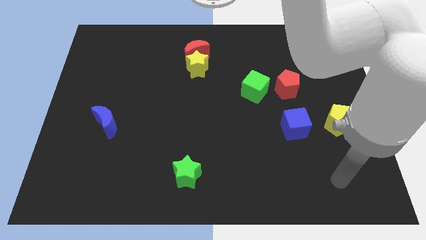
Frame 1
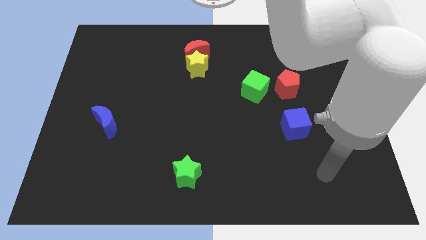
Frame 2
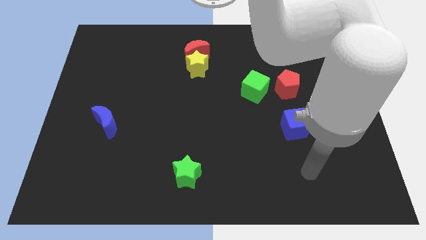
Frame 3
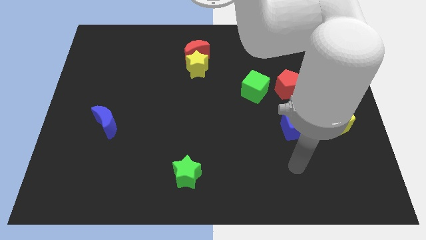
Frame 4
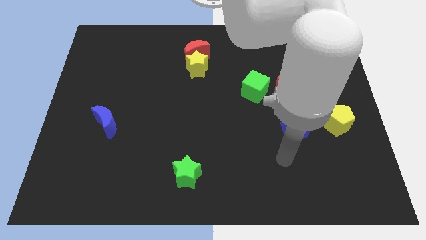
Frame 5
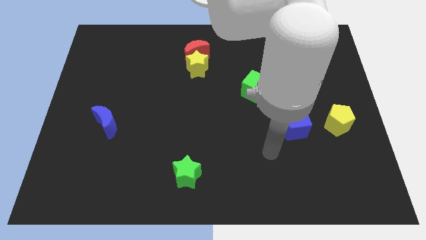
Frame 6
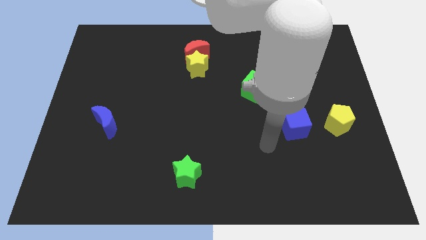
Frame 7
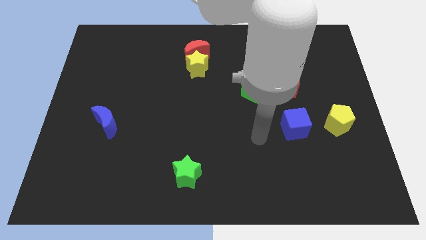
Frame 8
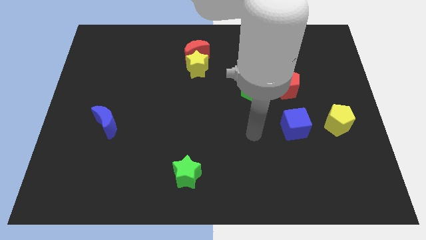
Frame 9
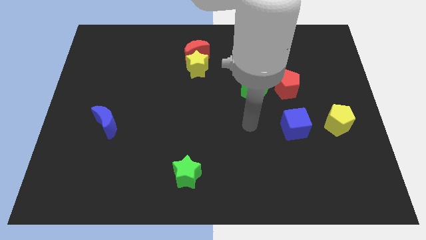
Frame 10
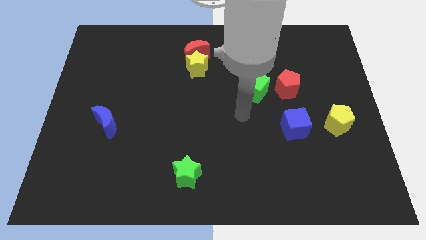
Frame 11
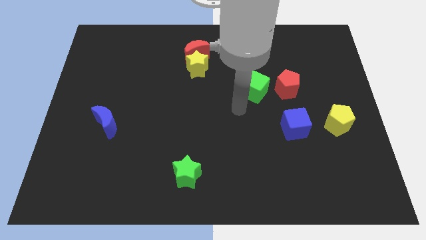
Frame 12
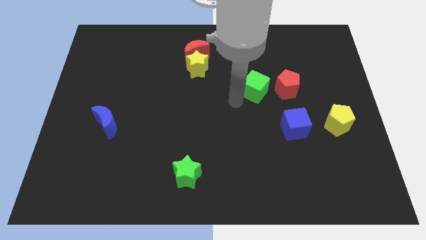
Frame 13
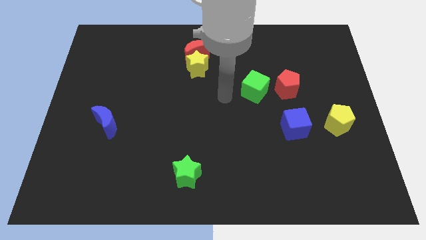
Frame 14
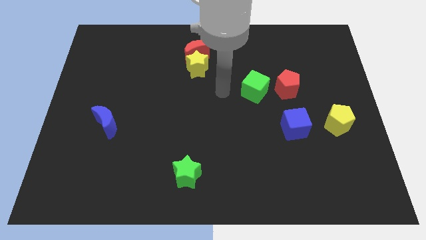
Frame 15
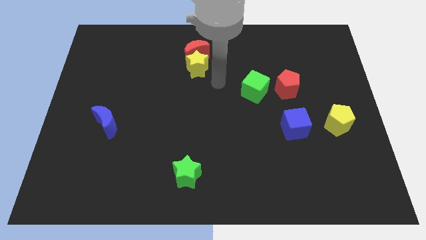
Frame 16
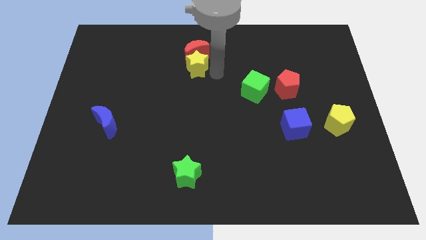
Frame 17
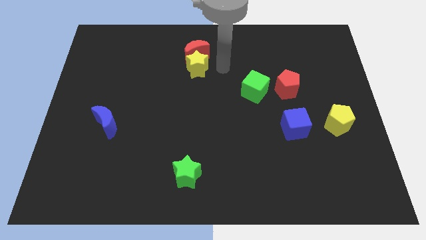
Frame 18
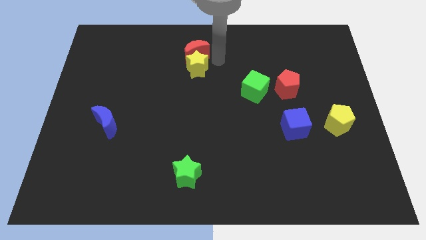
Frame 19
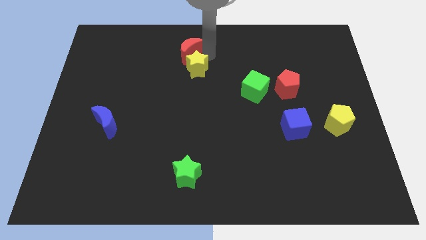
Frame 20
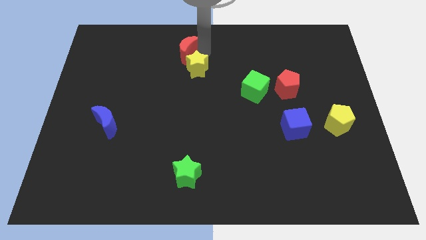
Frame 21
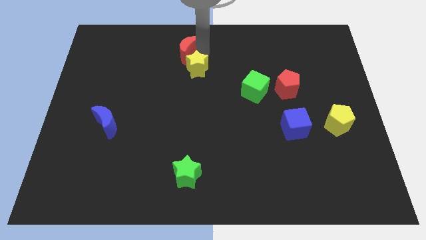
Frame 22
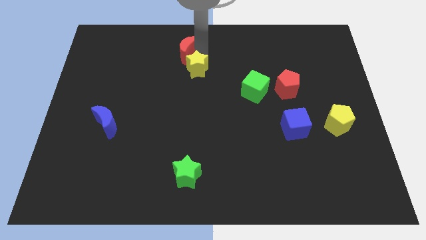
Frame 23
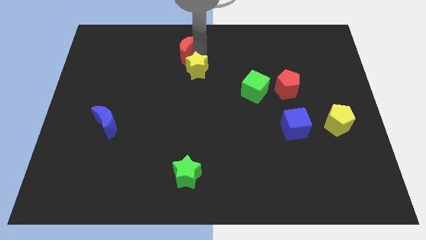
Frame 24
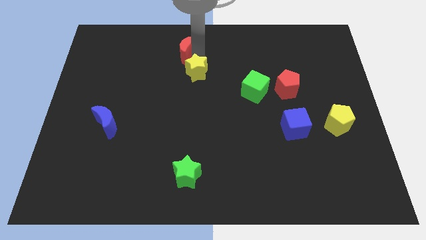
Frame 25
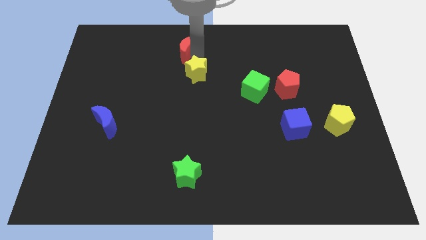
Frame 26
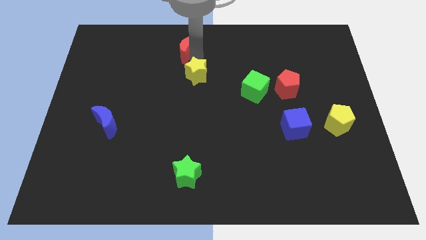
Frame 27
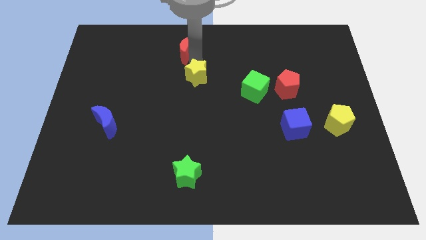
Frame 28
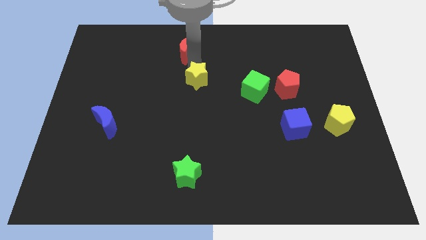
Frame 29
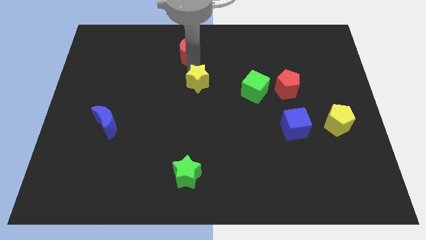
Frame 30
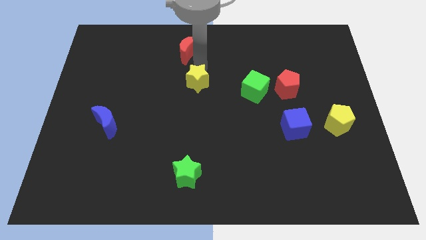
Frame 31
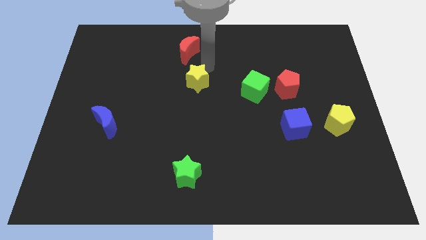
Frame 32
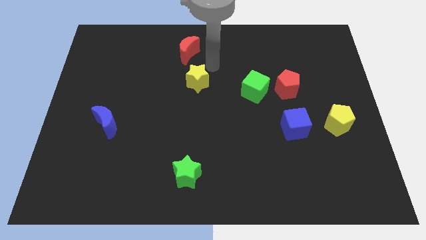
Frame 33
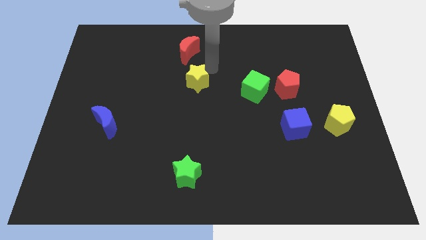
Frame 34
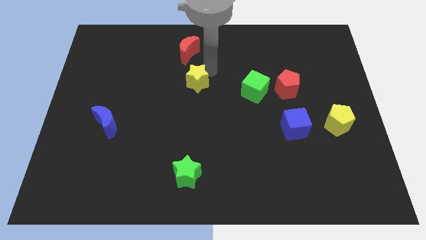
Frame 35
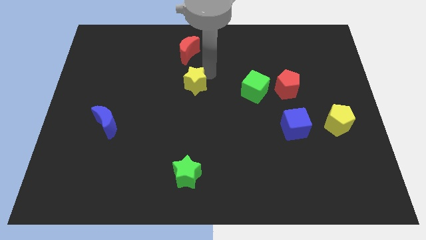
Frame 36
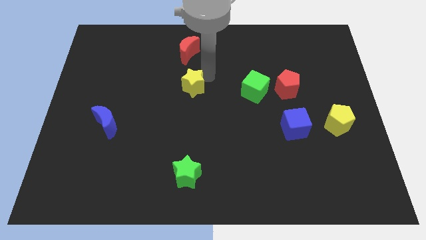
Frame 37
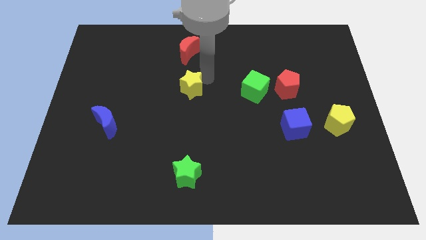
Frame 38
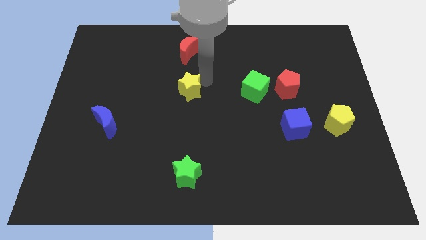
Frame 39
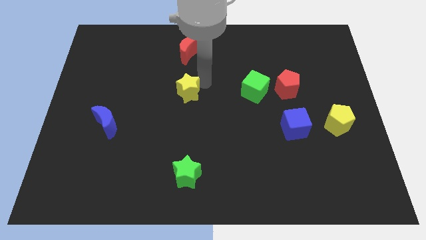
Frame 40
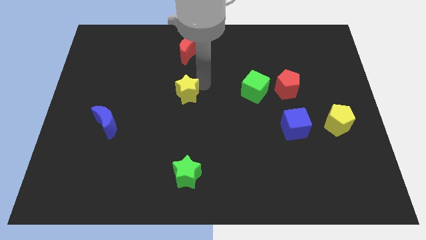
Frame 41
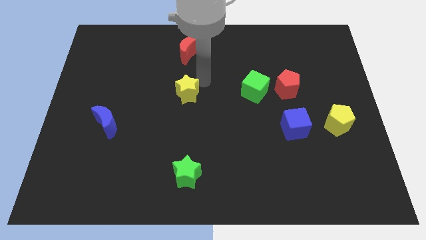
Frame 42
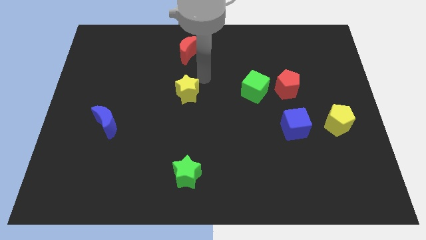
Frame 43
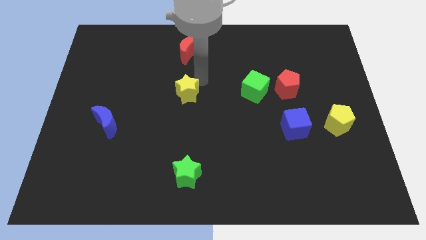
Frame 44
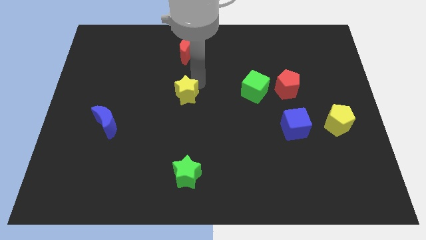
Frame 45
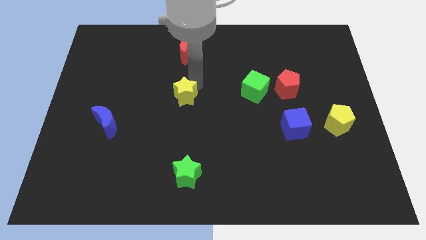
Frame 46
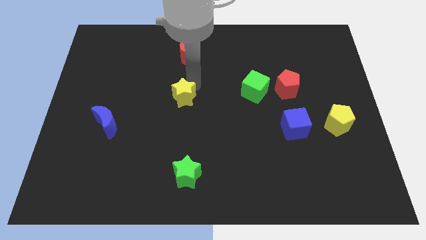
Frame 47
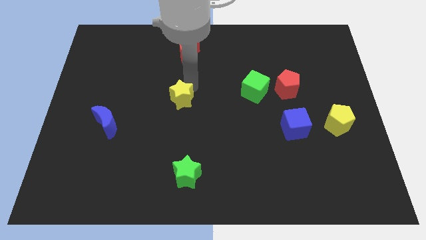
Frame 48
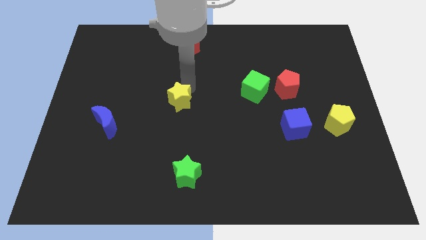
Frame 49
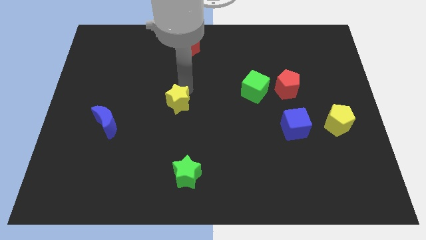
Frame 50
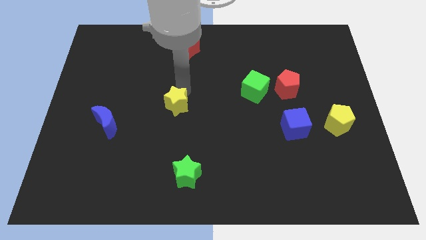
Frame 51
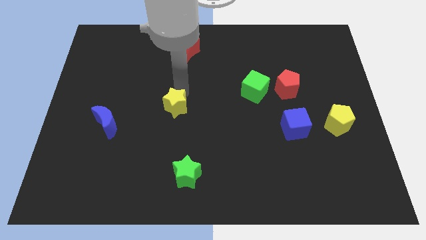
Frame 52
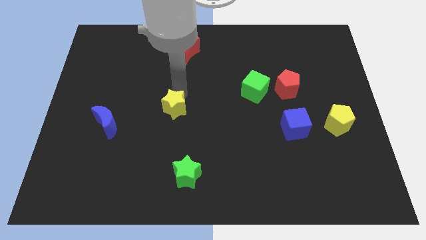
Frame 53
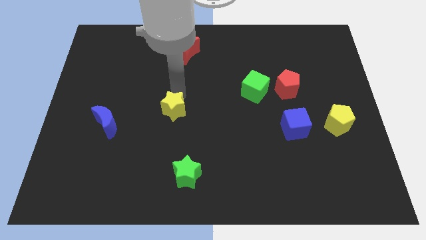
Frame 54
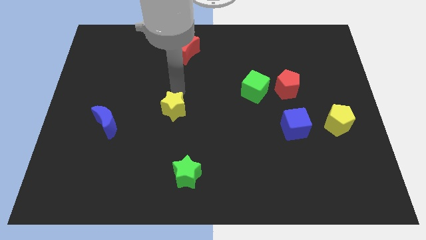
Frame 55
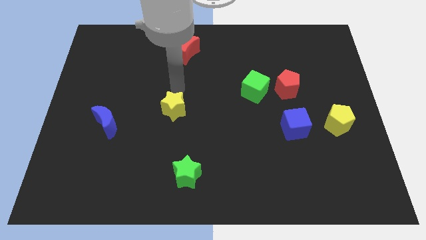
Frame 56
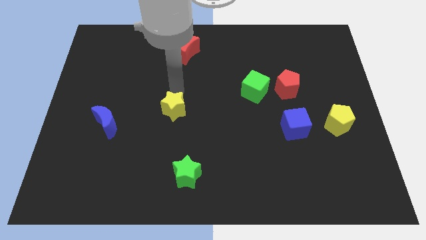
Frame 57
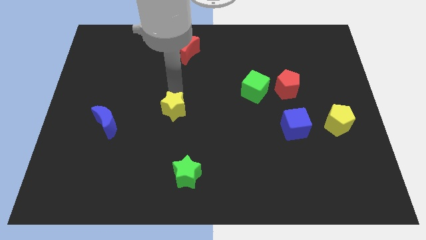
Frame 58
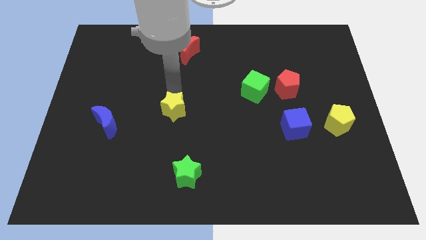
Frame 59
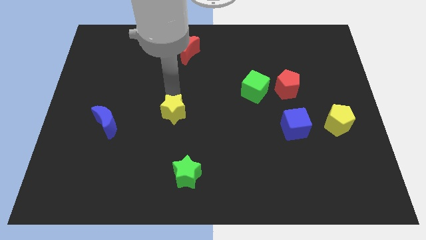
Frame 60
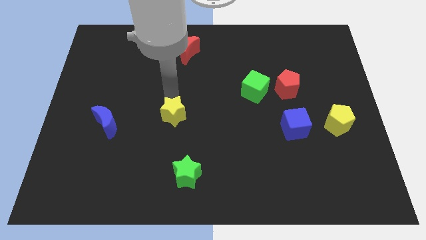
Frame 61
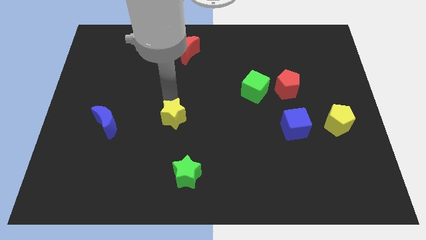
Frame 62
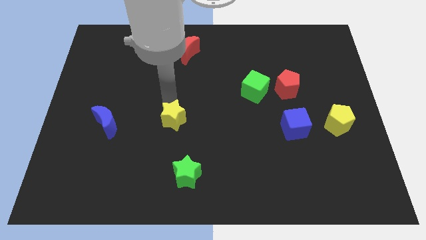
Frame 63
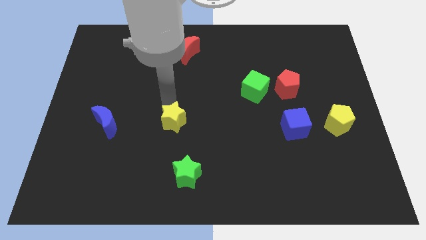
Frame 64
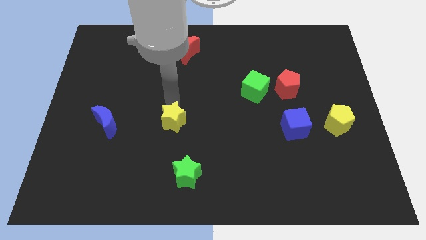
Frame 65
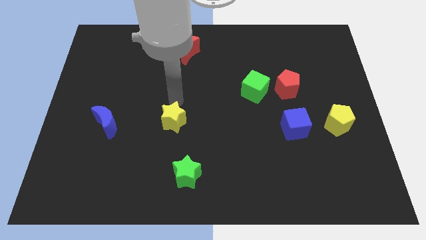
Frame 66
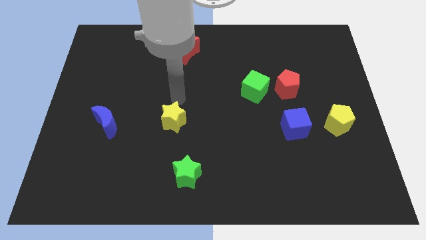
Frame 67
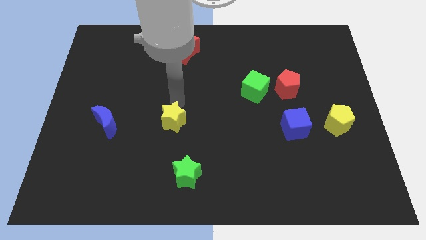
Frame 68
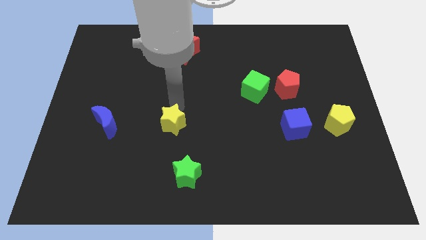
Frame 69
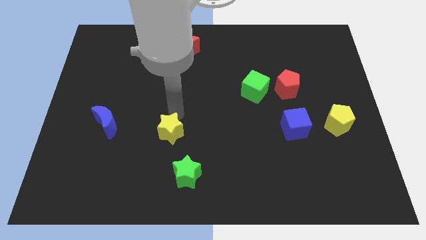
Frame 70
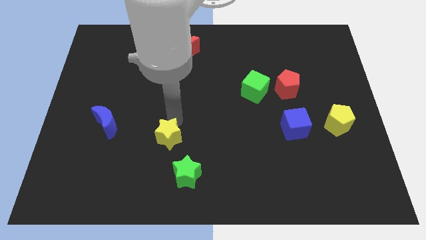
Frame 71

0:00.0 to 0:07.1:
put the yellow star to the top left side of the green star
